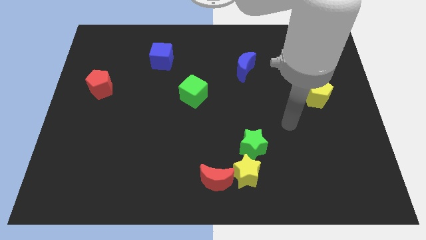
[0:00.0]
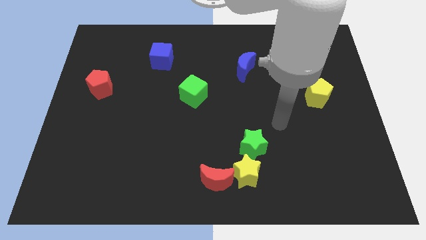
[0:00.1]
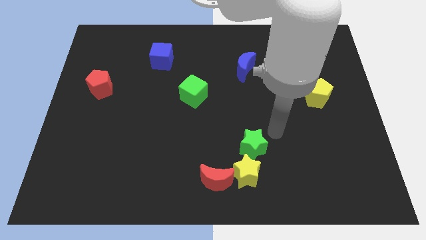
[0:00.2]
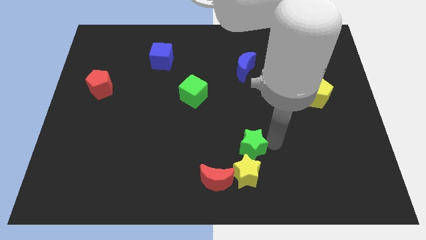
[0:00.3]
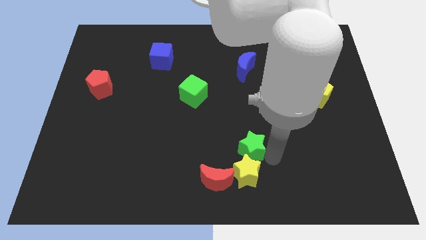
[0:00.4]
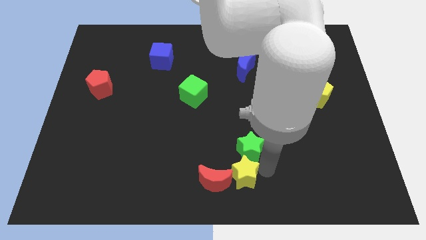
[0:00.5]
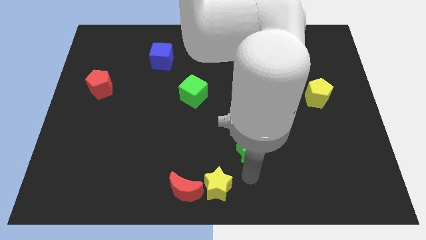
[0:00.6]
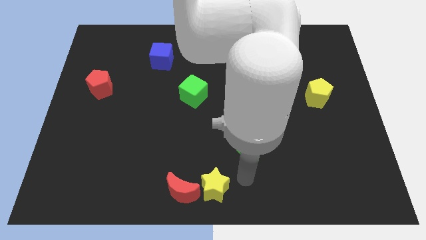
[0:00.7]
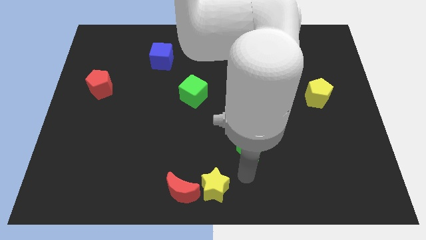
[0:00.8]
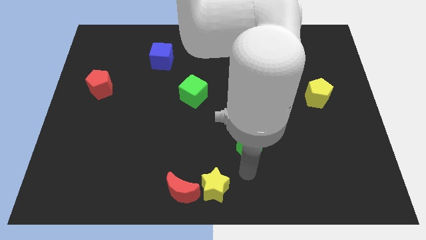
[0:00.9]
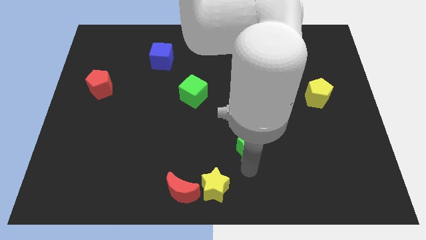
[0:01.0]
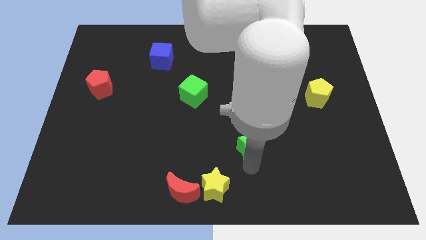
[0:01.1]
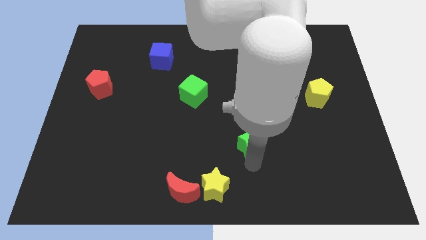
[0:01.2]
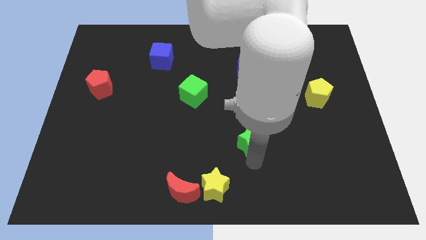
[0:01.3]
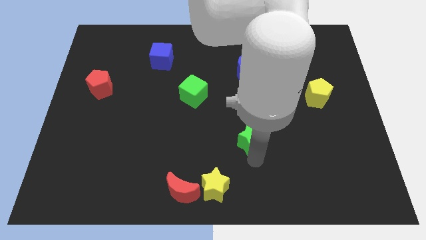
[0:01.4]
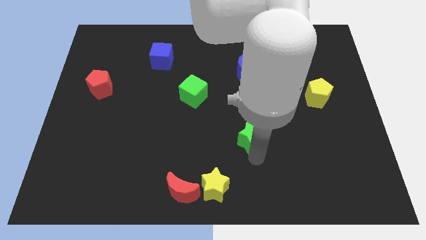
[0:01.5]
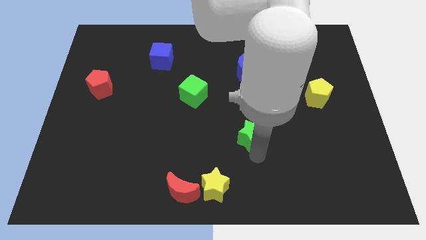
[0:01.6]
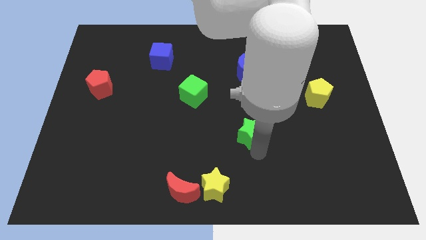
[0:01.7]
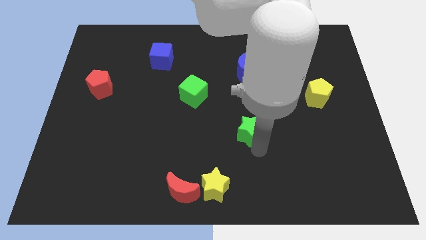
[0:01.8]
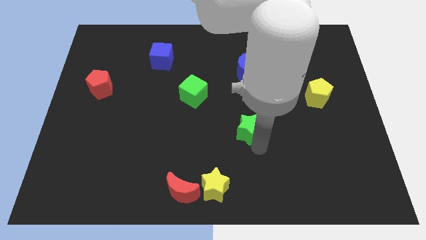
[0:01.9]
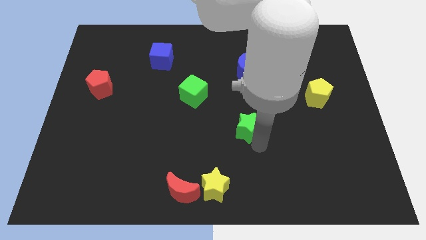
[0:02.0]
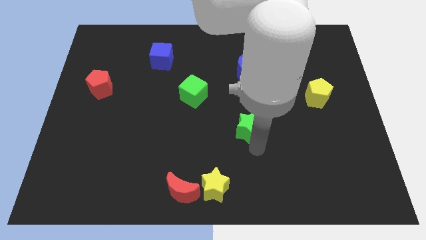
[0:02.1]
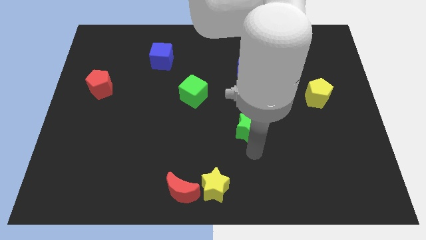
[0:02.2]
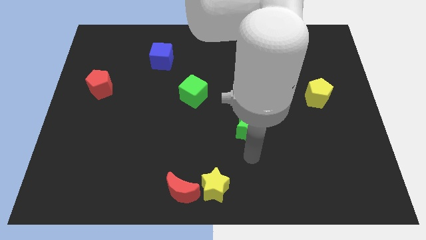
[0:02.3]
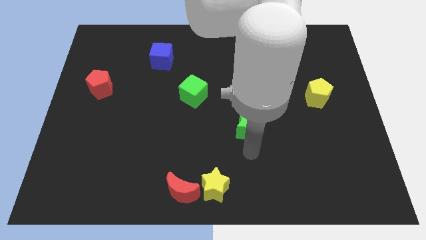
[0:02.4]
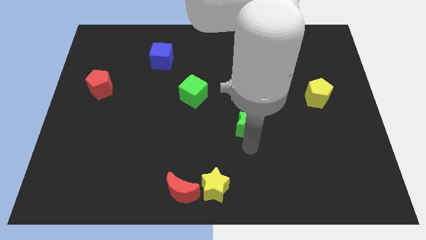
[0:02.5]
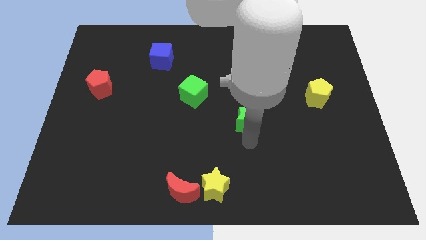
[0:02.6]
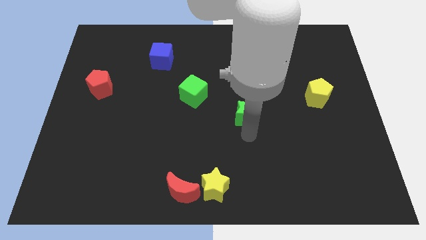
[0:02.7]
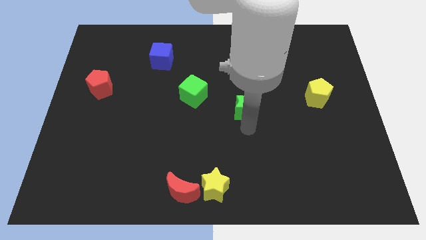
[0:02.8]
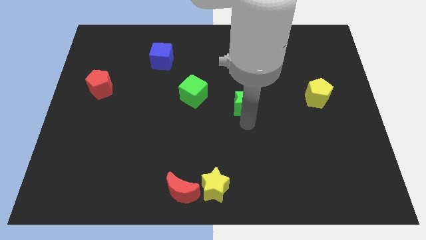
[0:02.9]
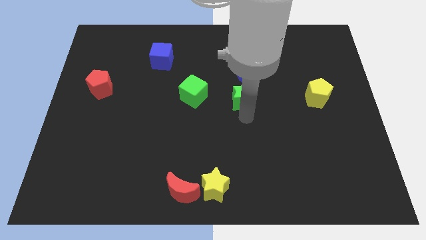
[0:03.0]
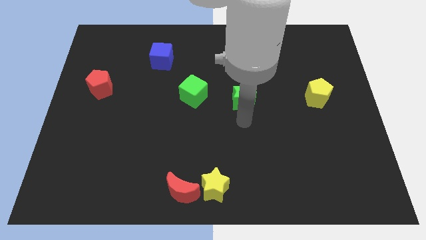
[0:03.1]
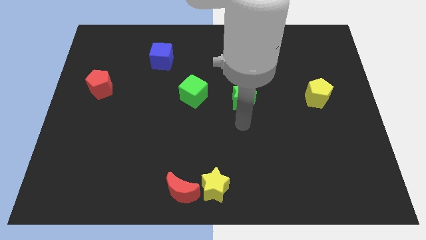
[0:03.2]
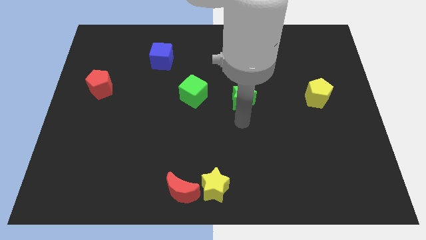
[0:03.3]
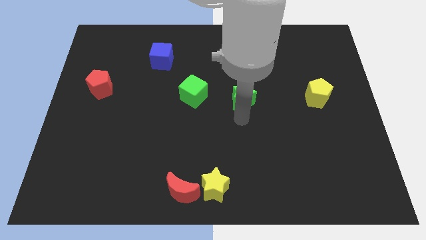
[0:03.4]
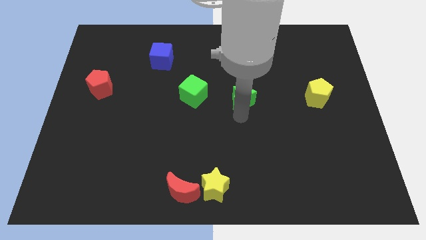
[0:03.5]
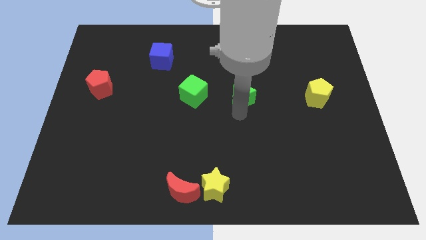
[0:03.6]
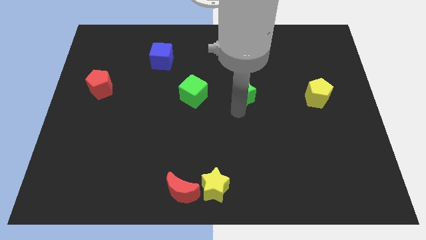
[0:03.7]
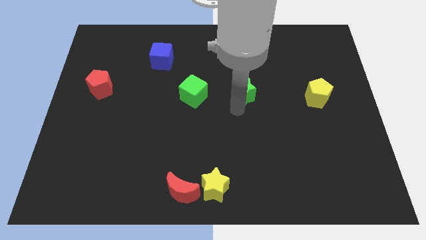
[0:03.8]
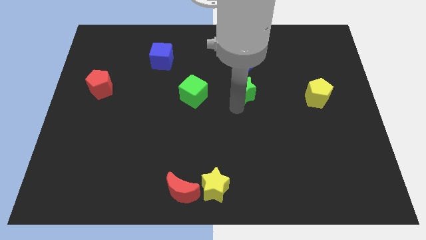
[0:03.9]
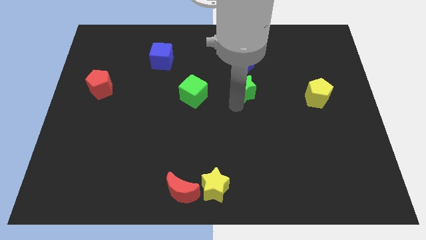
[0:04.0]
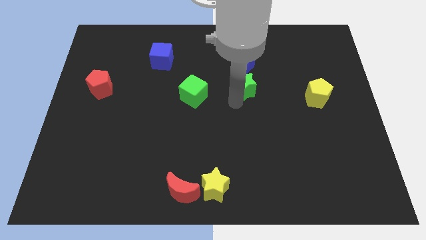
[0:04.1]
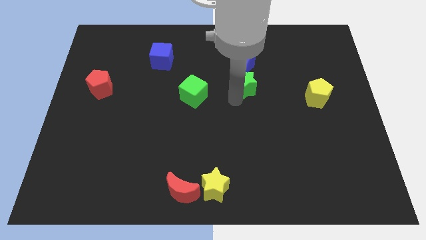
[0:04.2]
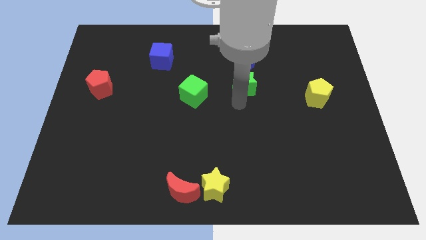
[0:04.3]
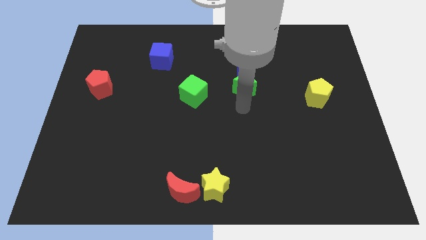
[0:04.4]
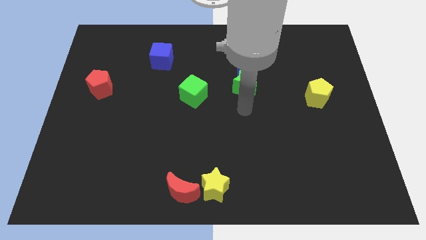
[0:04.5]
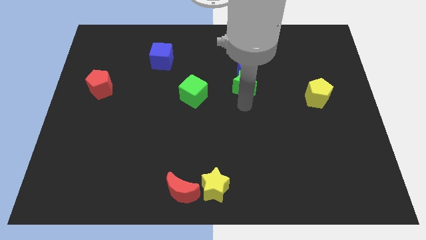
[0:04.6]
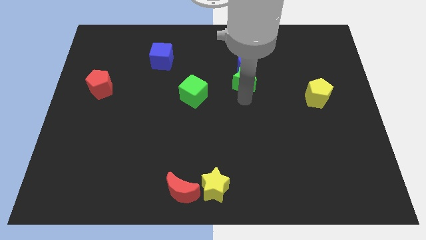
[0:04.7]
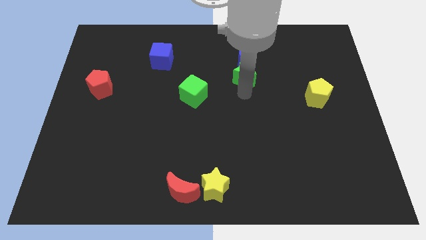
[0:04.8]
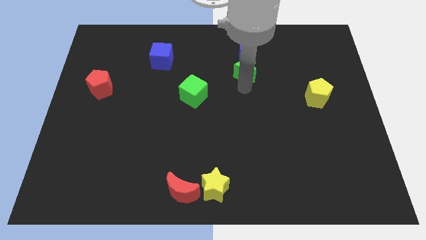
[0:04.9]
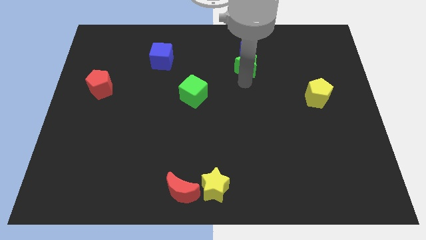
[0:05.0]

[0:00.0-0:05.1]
put the green star to the blue moon

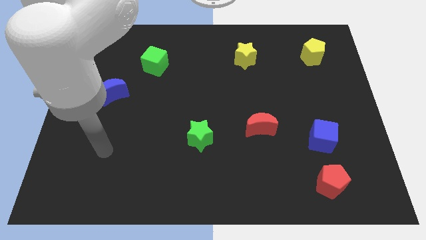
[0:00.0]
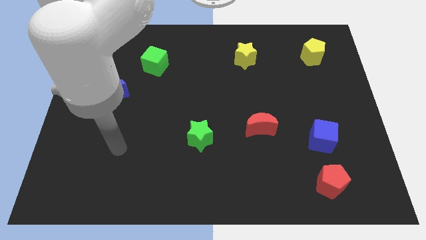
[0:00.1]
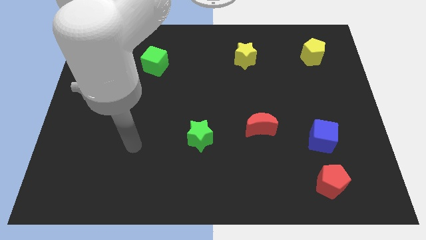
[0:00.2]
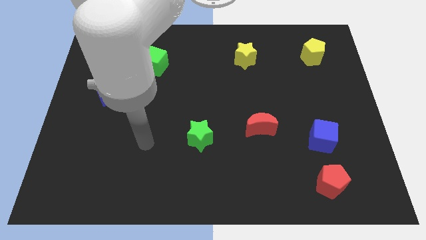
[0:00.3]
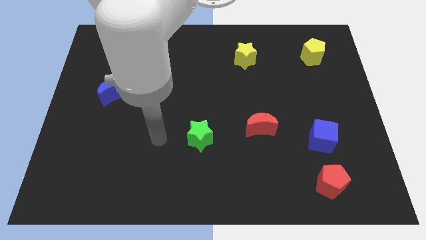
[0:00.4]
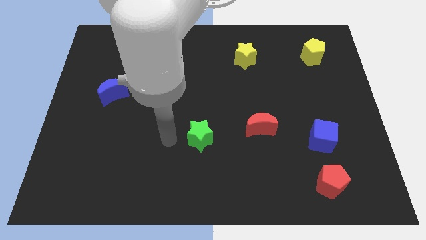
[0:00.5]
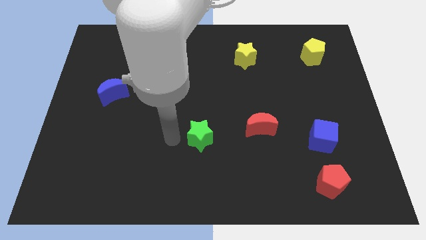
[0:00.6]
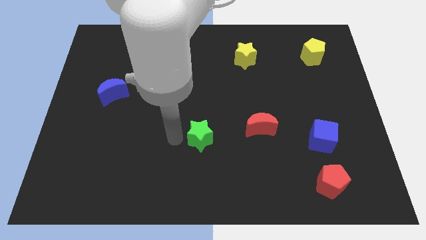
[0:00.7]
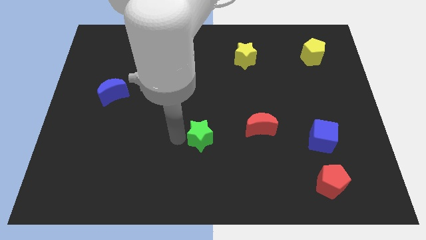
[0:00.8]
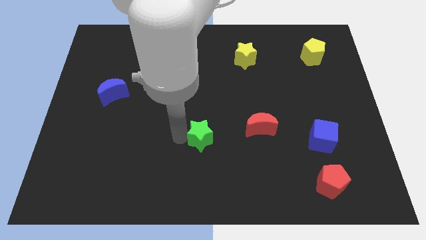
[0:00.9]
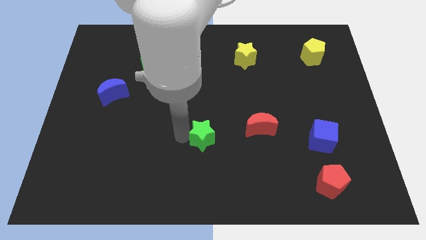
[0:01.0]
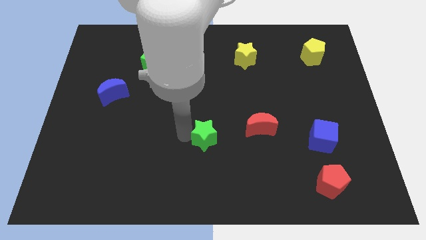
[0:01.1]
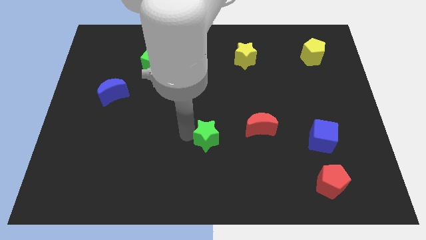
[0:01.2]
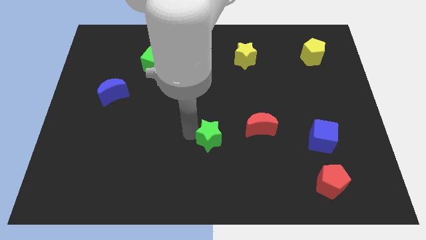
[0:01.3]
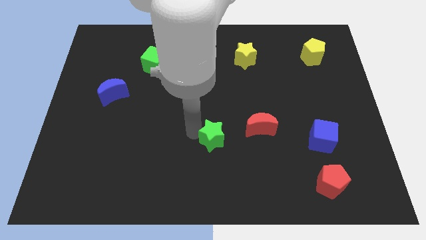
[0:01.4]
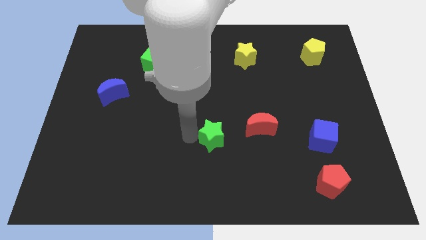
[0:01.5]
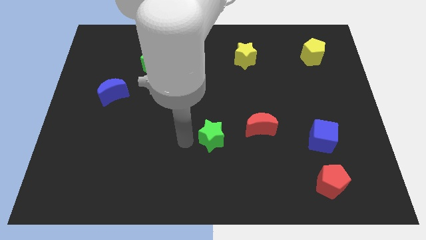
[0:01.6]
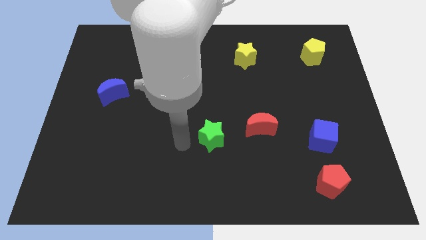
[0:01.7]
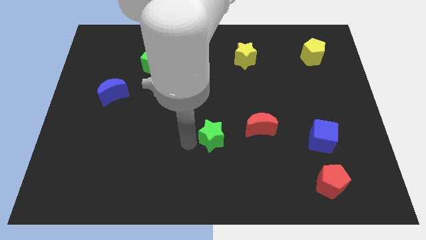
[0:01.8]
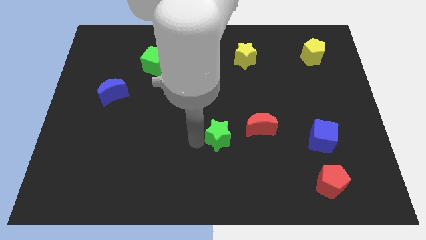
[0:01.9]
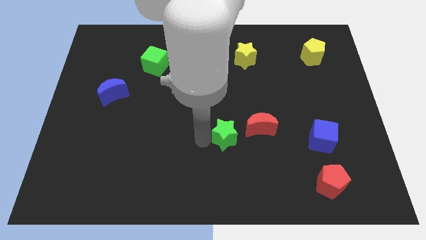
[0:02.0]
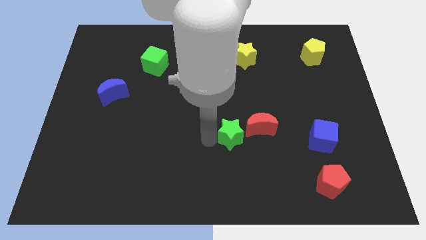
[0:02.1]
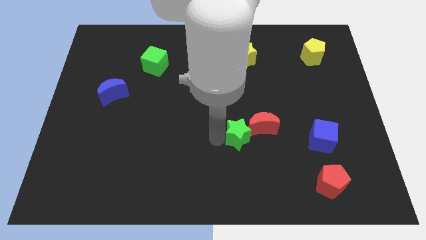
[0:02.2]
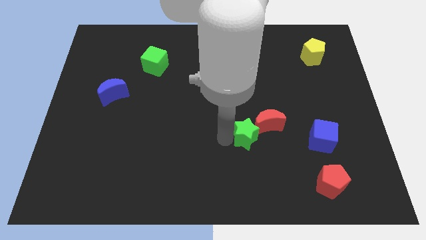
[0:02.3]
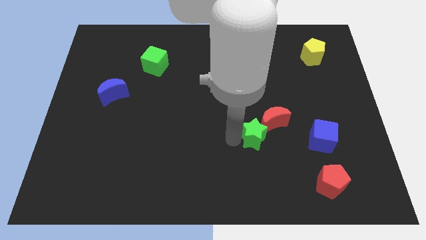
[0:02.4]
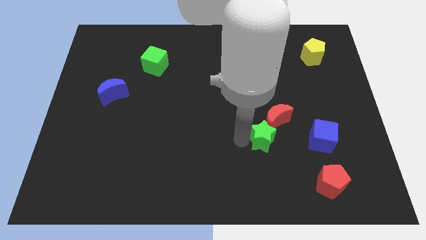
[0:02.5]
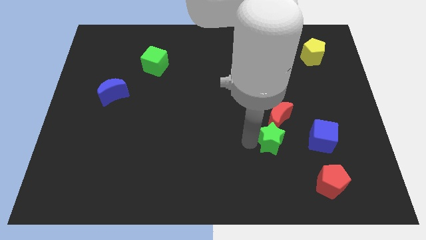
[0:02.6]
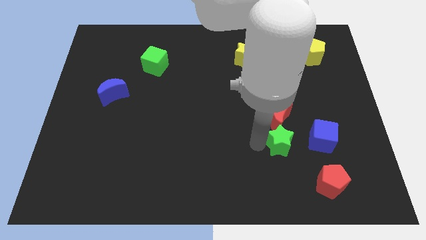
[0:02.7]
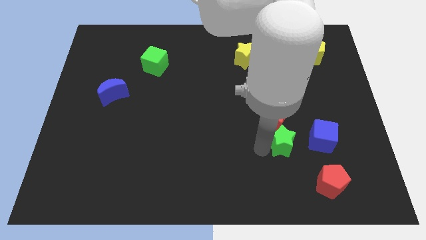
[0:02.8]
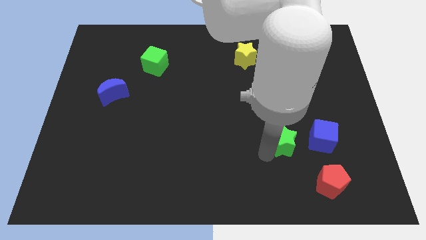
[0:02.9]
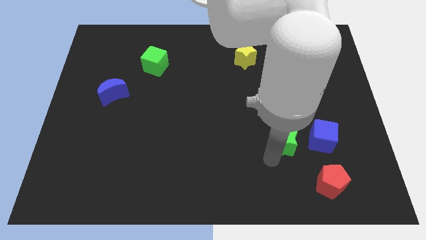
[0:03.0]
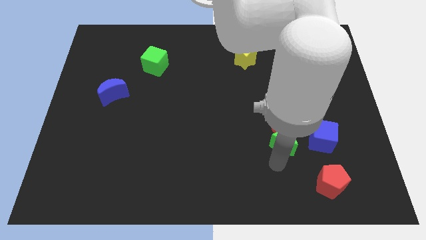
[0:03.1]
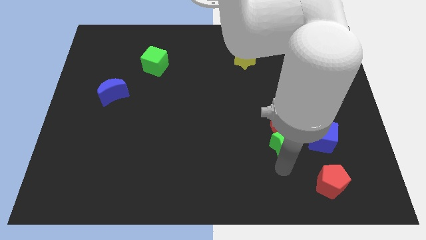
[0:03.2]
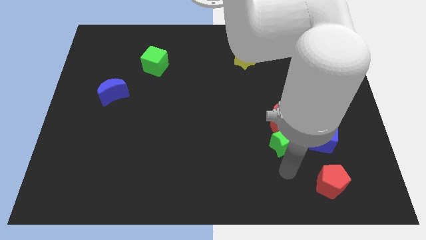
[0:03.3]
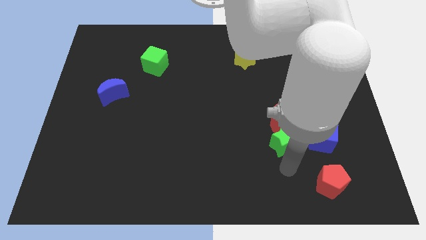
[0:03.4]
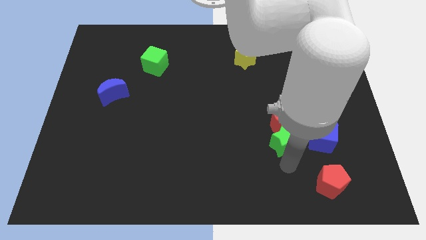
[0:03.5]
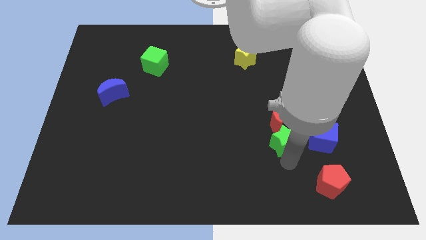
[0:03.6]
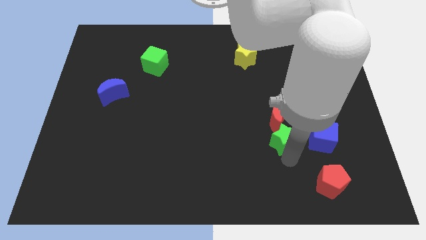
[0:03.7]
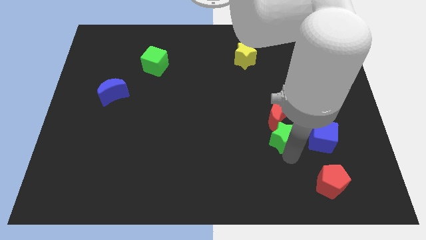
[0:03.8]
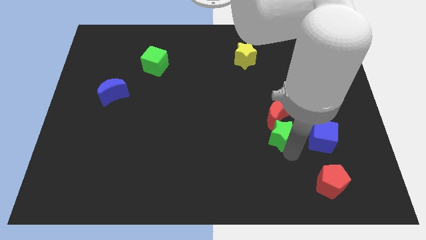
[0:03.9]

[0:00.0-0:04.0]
move the green star next to the red moon
